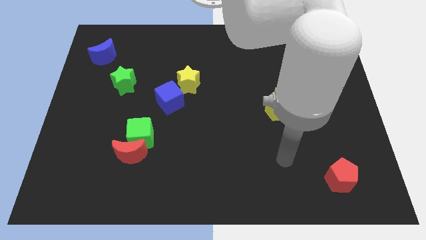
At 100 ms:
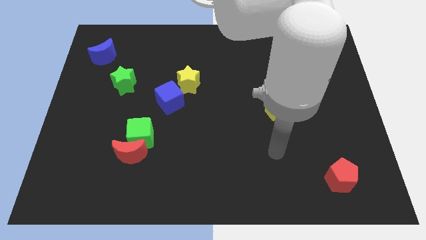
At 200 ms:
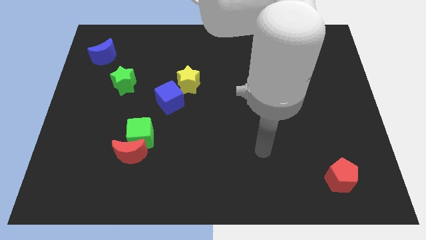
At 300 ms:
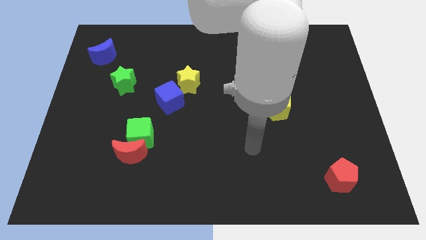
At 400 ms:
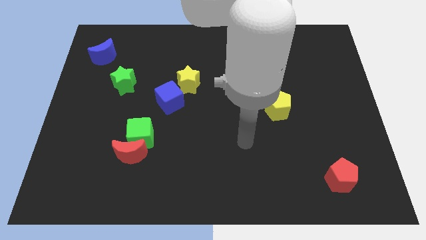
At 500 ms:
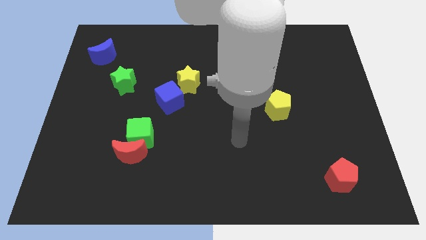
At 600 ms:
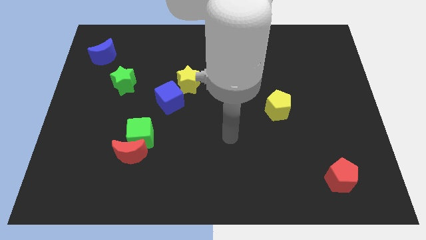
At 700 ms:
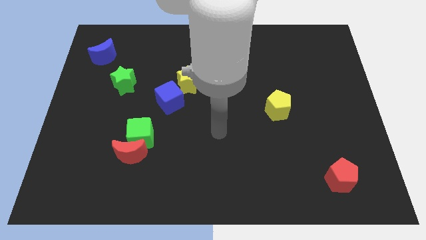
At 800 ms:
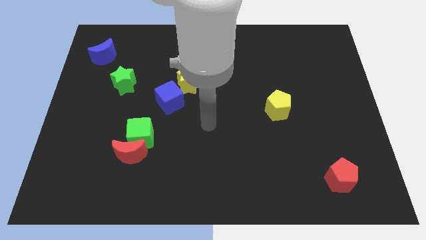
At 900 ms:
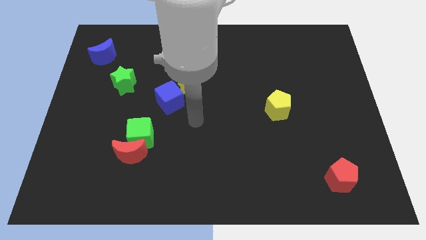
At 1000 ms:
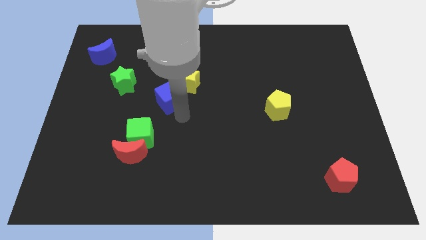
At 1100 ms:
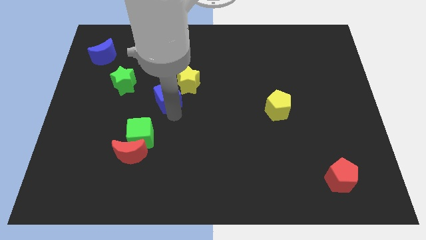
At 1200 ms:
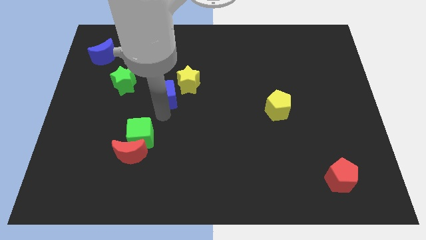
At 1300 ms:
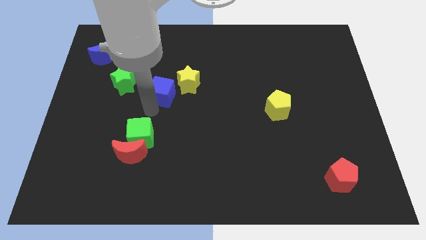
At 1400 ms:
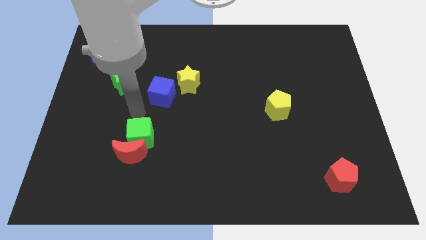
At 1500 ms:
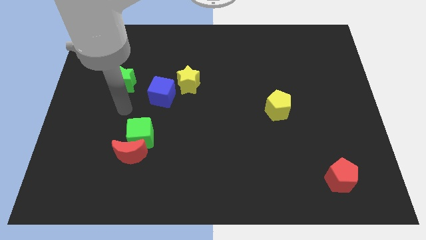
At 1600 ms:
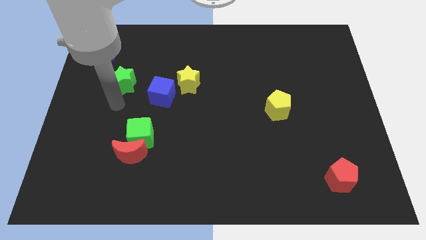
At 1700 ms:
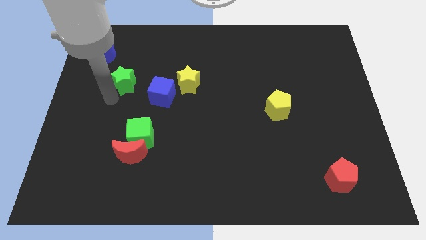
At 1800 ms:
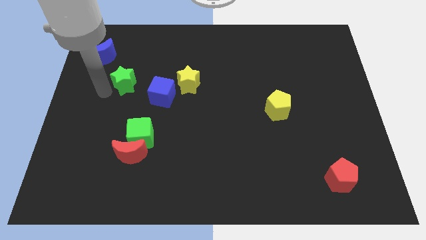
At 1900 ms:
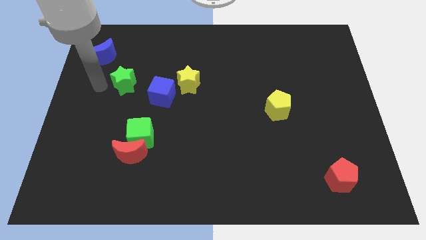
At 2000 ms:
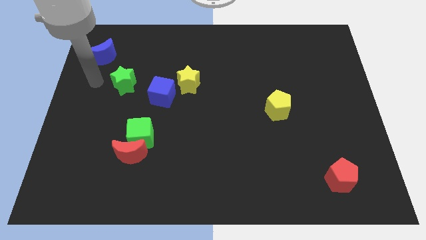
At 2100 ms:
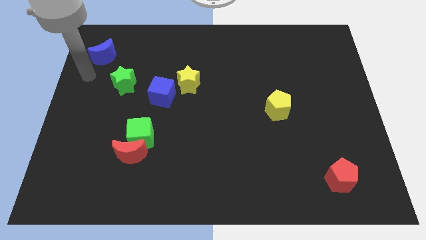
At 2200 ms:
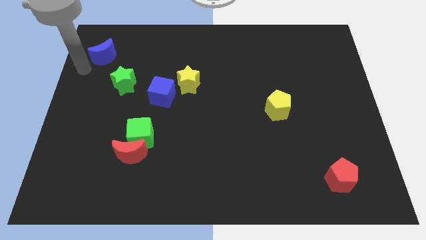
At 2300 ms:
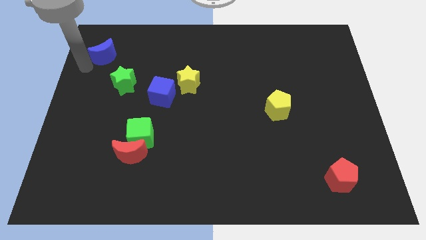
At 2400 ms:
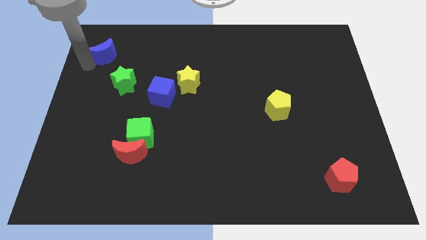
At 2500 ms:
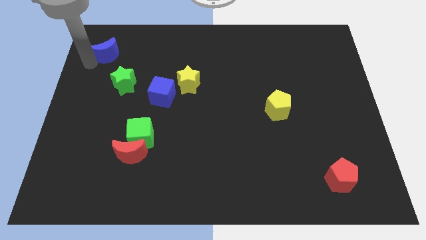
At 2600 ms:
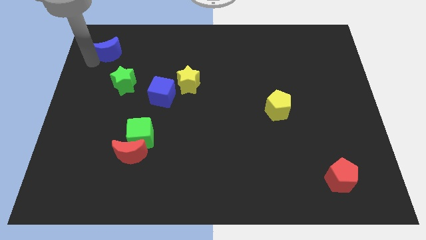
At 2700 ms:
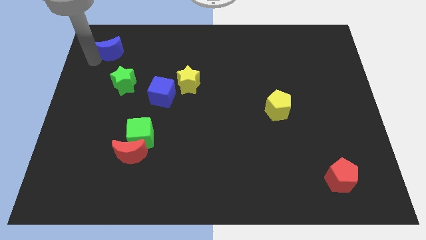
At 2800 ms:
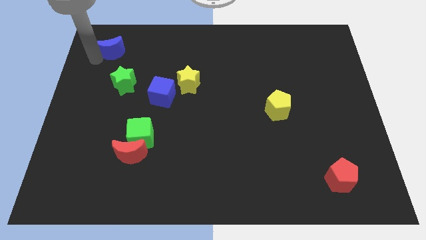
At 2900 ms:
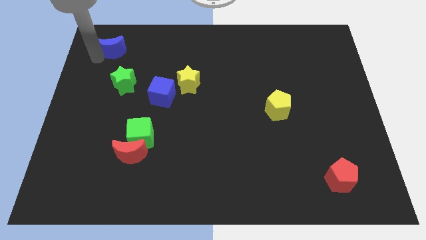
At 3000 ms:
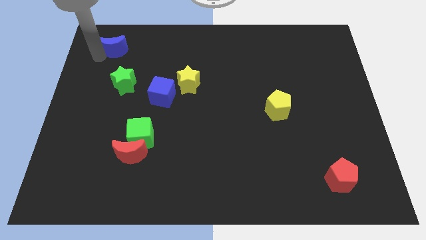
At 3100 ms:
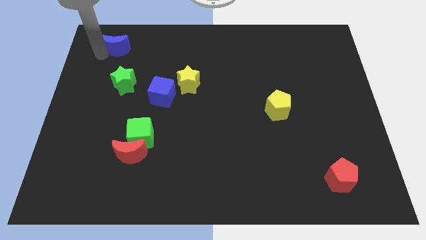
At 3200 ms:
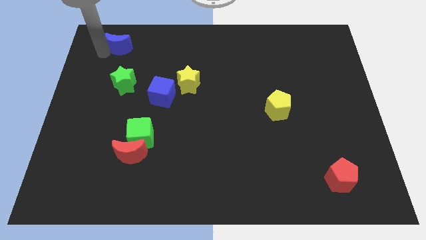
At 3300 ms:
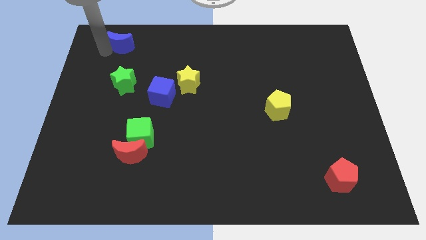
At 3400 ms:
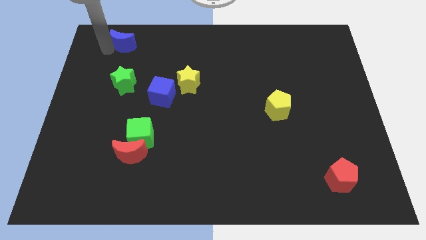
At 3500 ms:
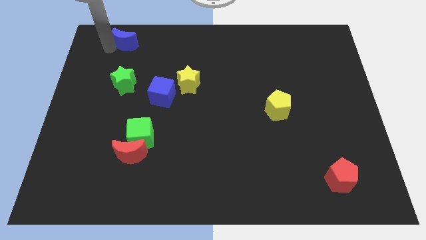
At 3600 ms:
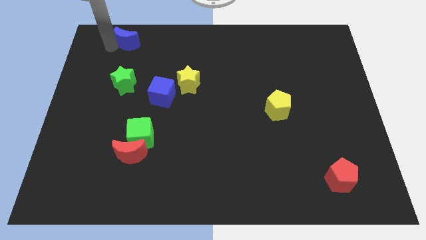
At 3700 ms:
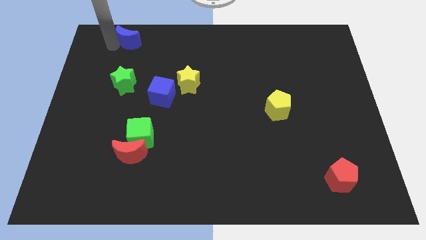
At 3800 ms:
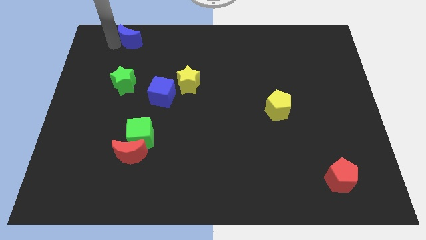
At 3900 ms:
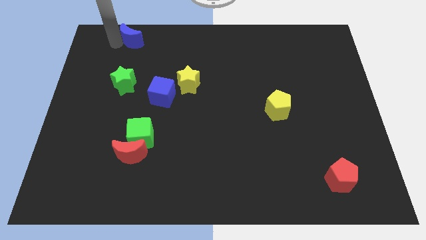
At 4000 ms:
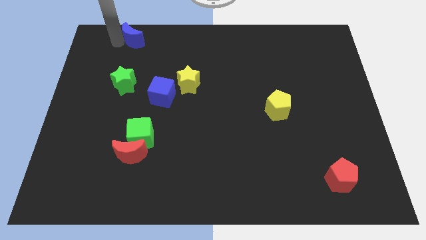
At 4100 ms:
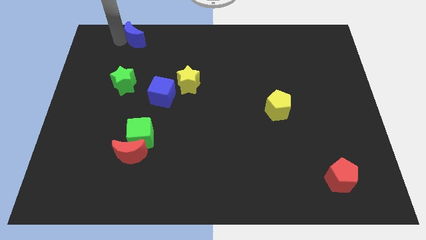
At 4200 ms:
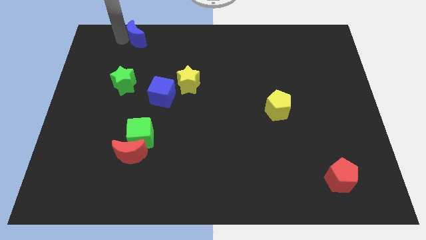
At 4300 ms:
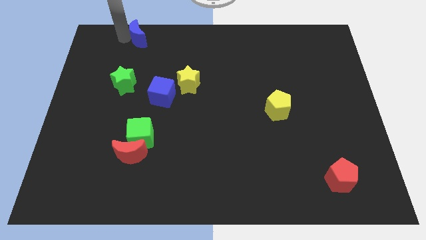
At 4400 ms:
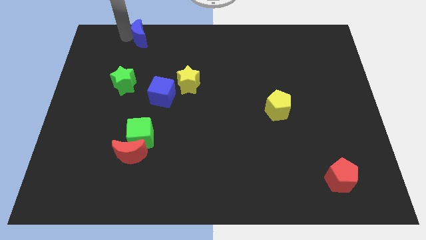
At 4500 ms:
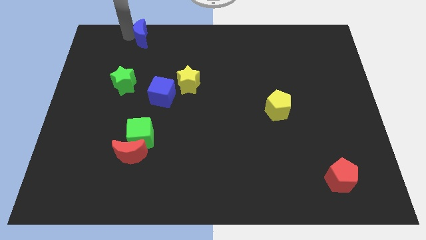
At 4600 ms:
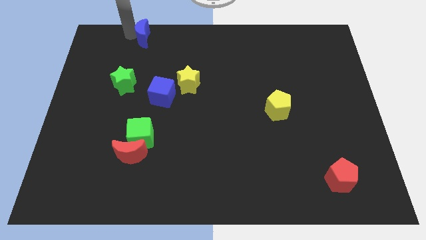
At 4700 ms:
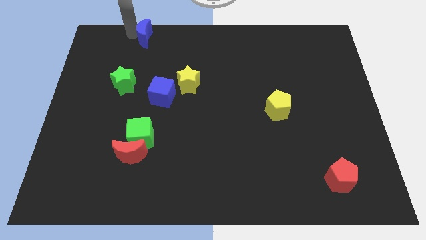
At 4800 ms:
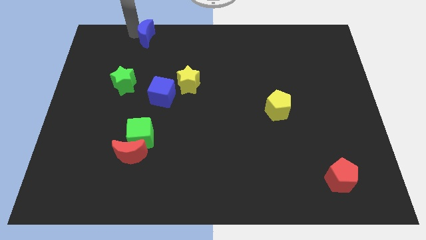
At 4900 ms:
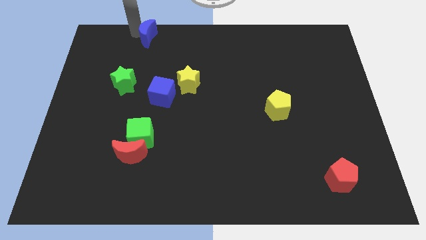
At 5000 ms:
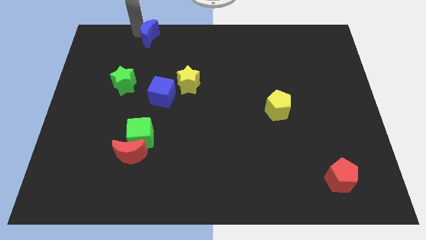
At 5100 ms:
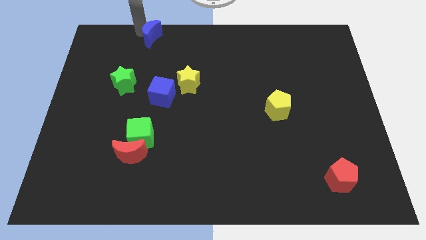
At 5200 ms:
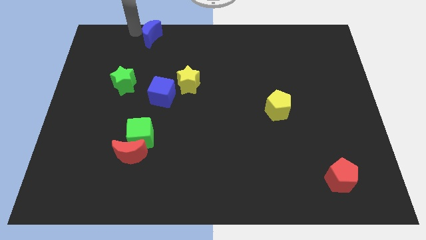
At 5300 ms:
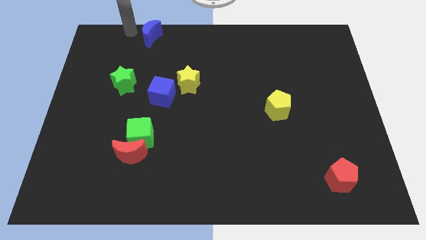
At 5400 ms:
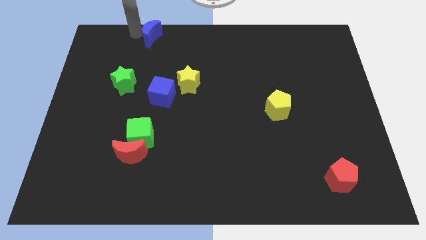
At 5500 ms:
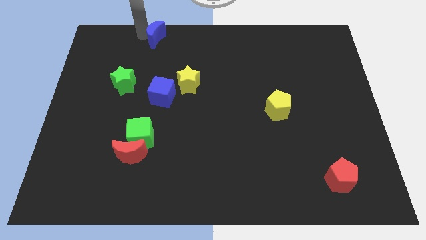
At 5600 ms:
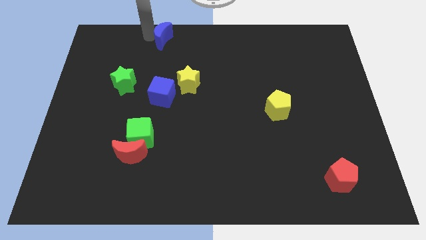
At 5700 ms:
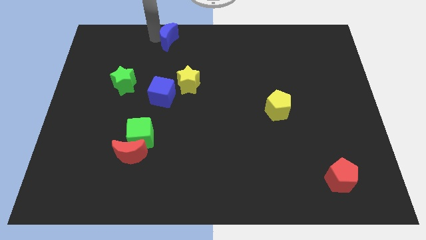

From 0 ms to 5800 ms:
slide the blue moon to the top side
